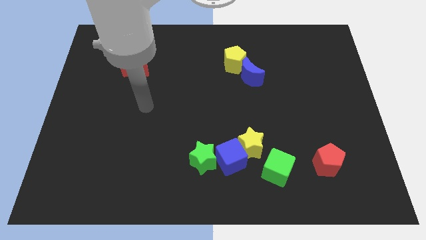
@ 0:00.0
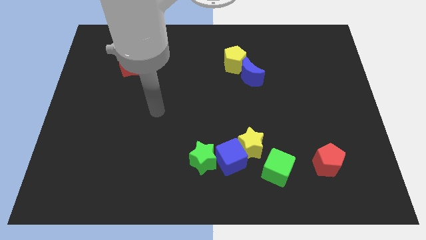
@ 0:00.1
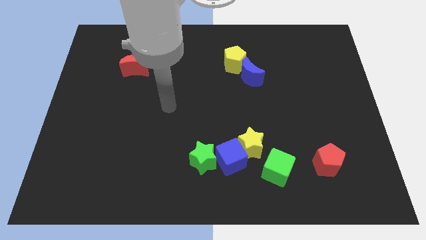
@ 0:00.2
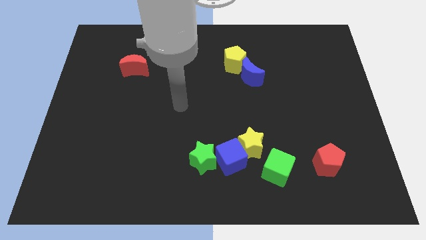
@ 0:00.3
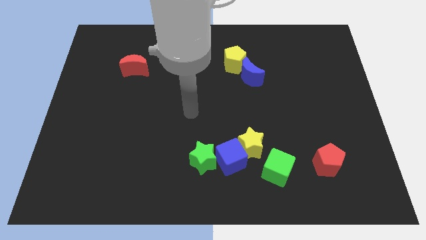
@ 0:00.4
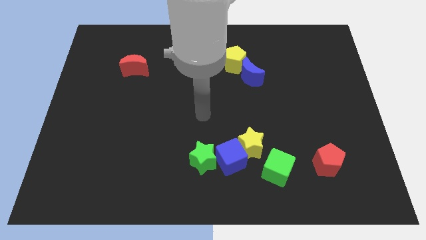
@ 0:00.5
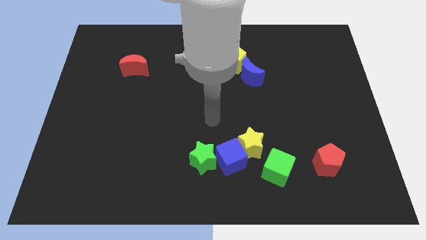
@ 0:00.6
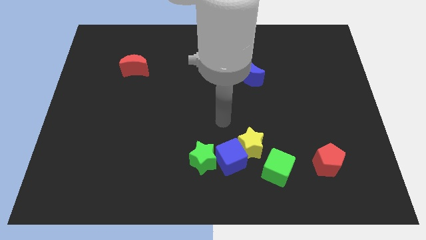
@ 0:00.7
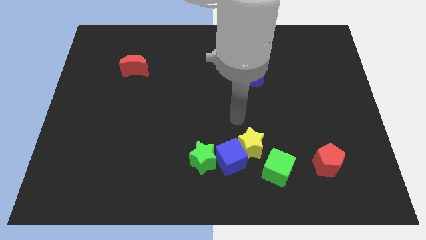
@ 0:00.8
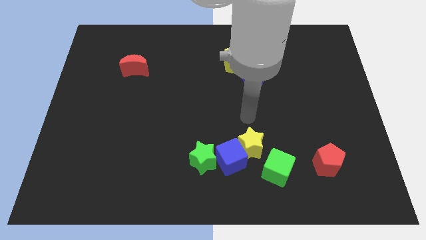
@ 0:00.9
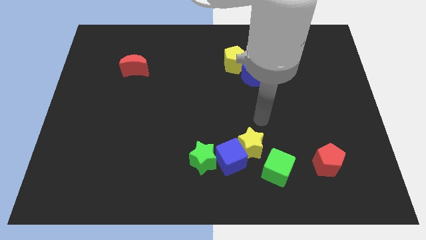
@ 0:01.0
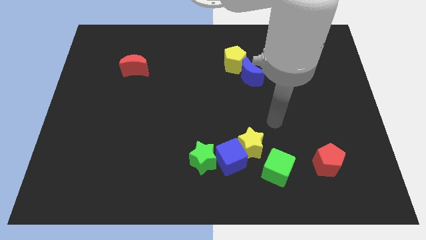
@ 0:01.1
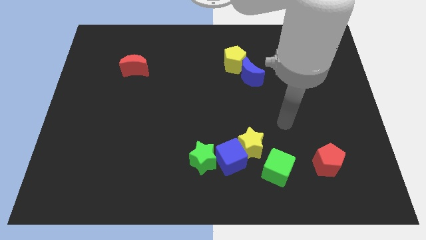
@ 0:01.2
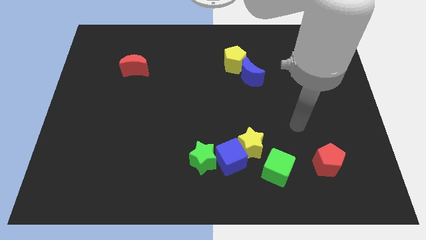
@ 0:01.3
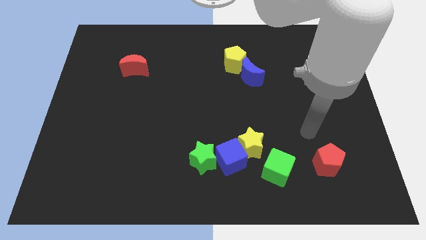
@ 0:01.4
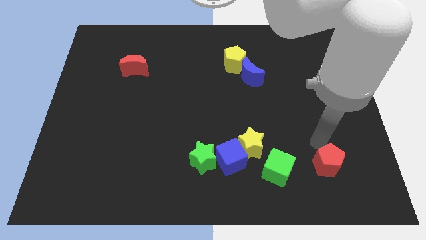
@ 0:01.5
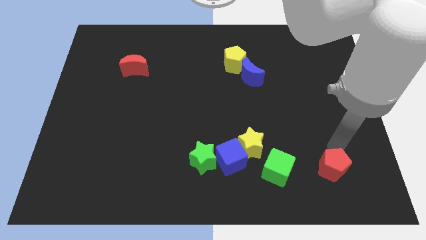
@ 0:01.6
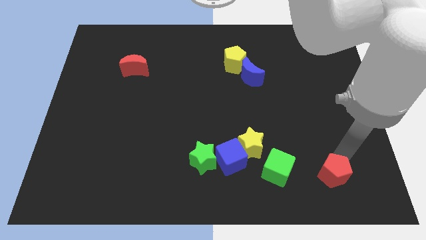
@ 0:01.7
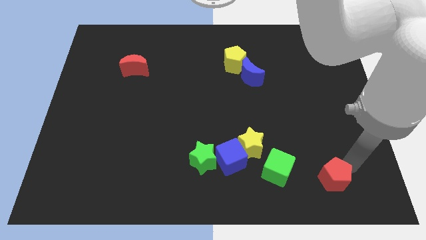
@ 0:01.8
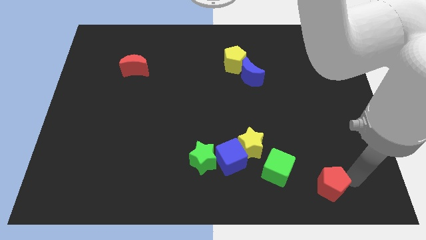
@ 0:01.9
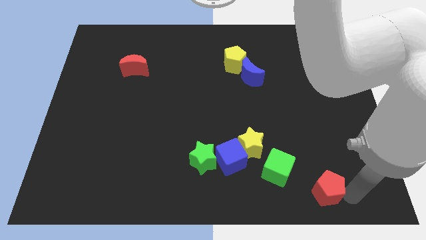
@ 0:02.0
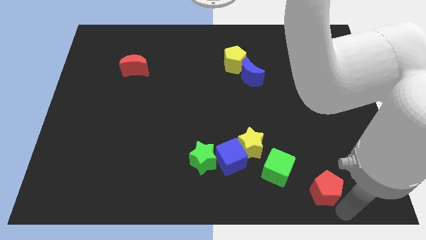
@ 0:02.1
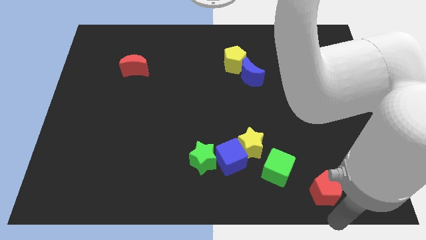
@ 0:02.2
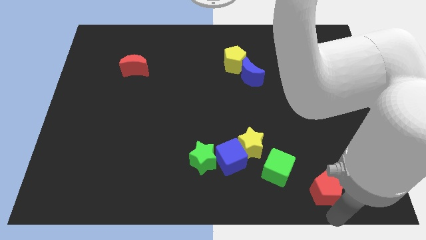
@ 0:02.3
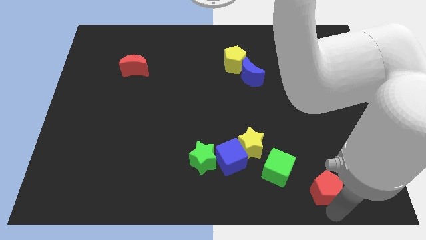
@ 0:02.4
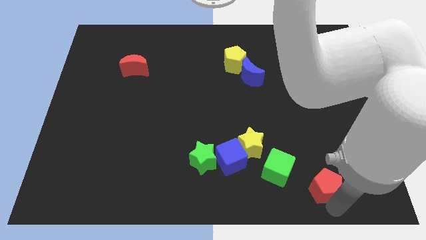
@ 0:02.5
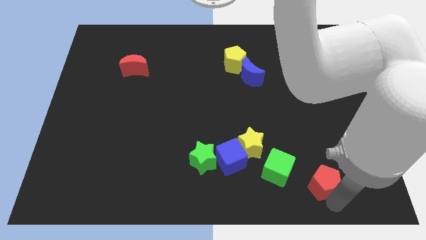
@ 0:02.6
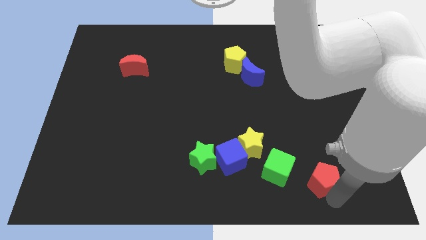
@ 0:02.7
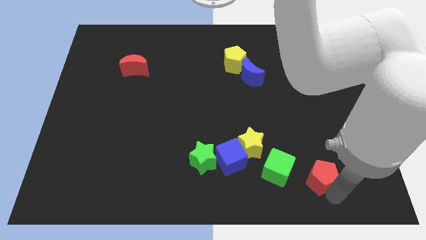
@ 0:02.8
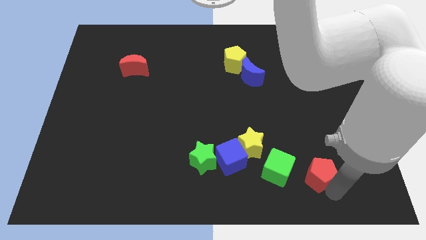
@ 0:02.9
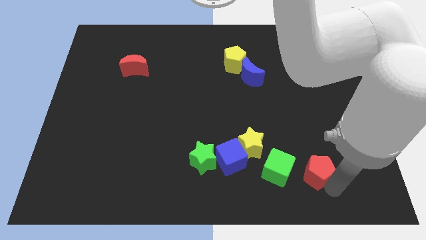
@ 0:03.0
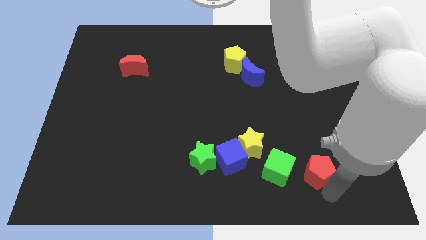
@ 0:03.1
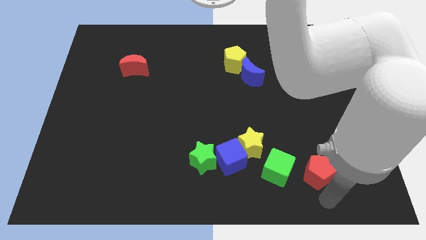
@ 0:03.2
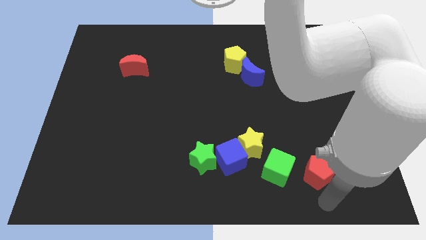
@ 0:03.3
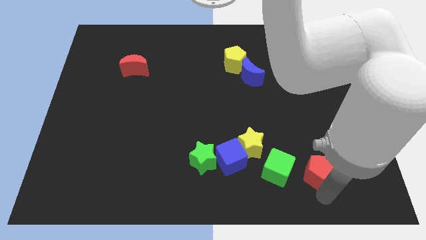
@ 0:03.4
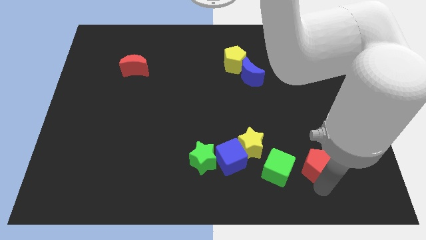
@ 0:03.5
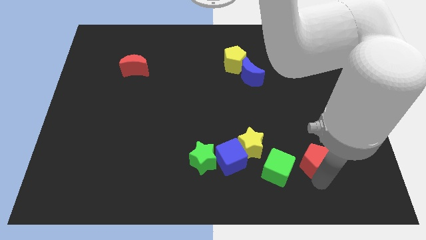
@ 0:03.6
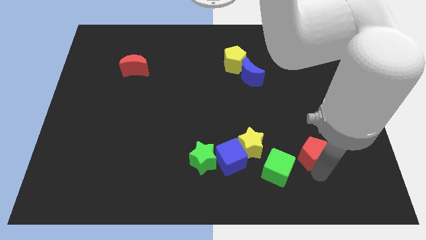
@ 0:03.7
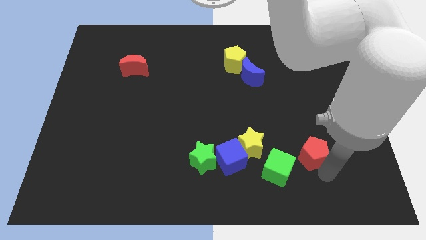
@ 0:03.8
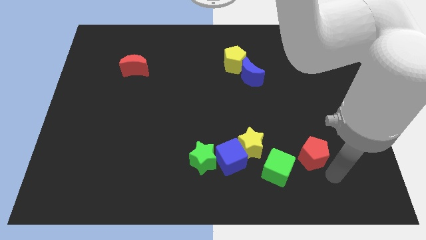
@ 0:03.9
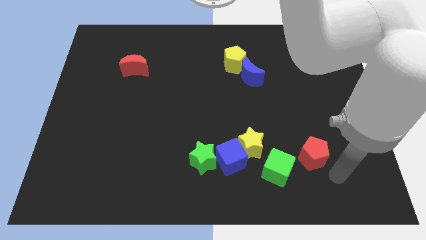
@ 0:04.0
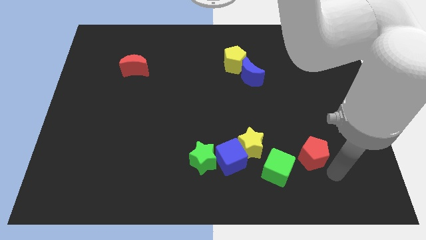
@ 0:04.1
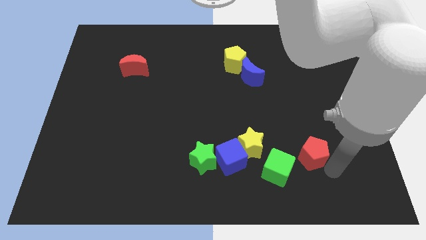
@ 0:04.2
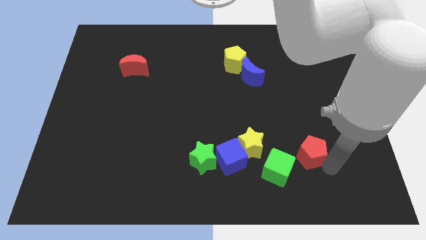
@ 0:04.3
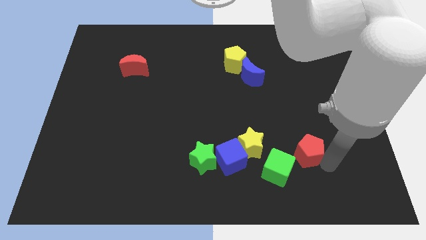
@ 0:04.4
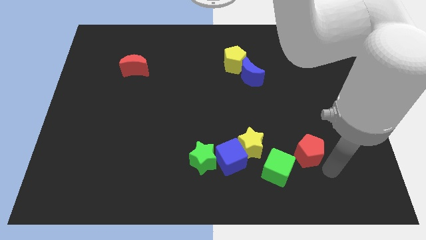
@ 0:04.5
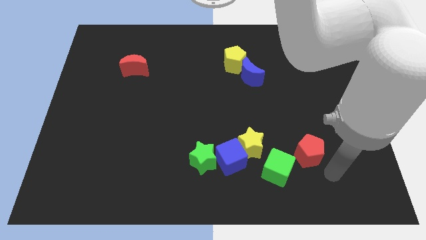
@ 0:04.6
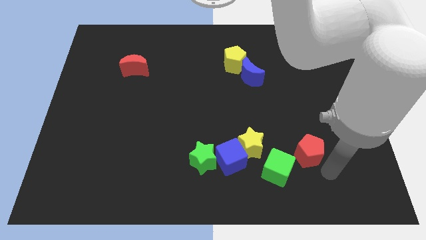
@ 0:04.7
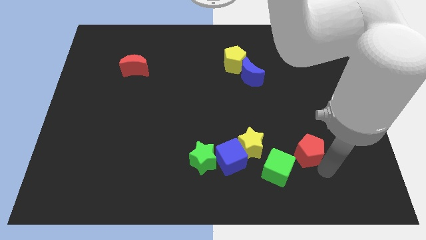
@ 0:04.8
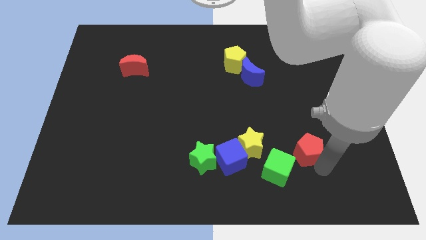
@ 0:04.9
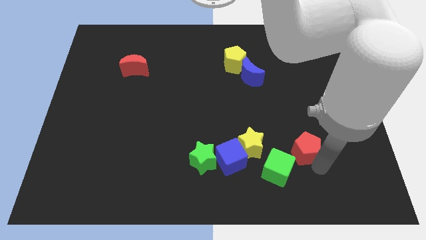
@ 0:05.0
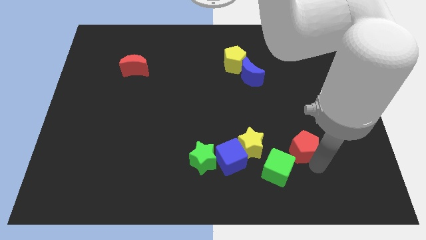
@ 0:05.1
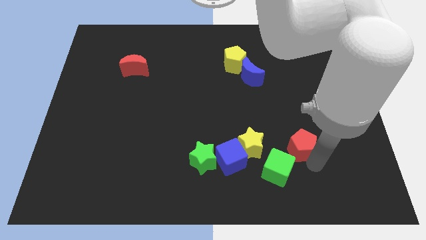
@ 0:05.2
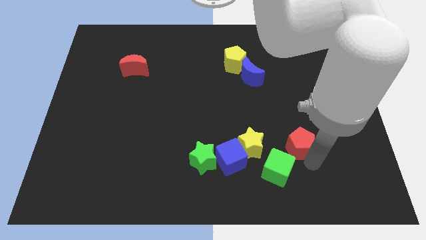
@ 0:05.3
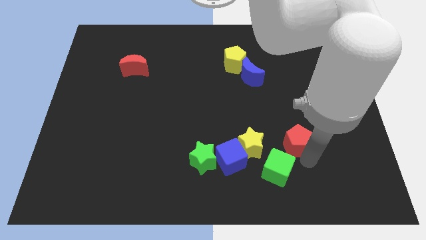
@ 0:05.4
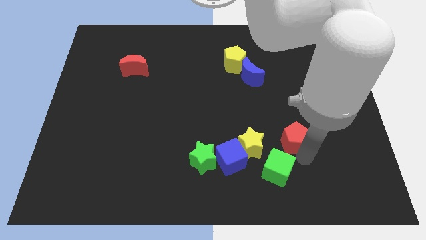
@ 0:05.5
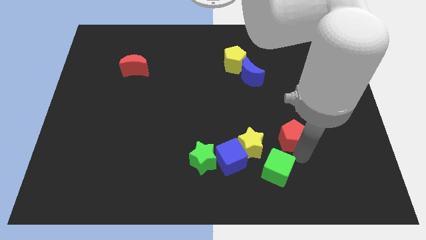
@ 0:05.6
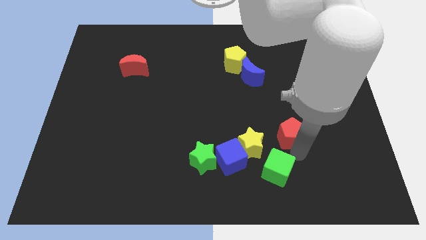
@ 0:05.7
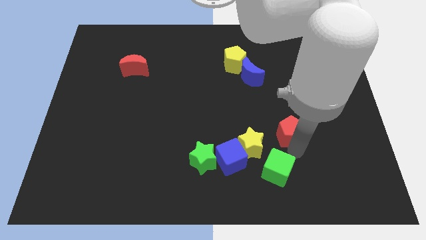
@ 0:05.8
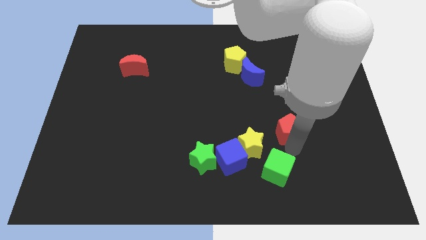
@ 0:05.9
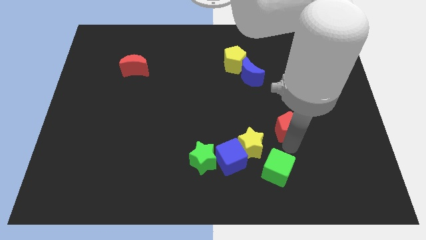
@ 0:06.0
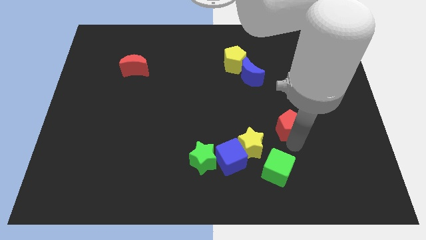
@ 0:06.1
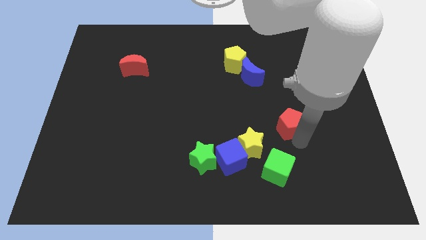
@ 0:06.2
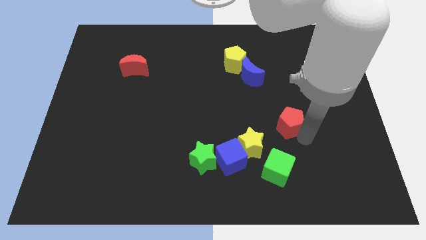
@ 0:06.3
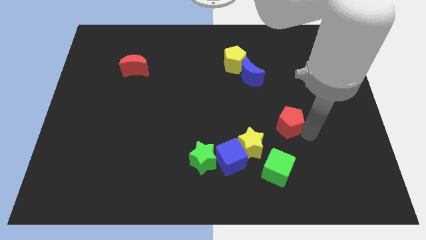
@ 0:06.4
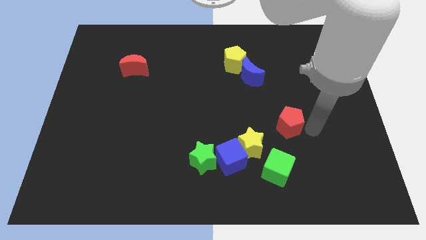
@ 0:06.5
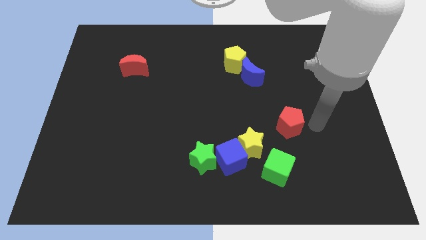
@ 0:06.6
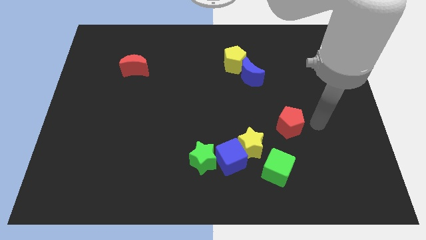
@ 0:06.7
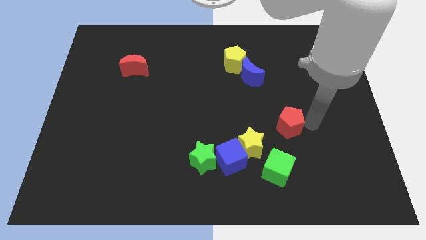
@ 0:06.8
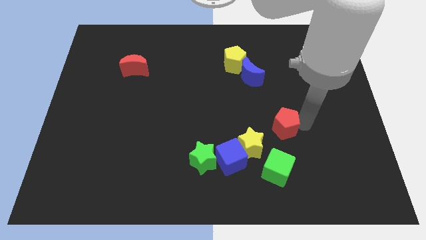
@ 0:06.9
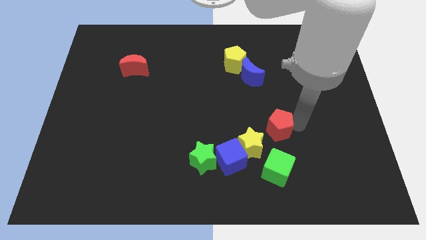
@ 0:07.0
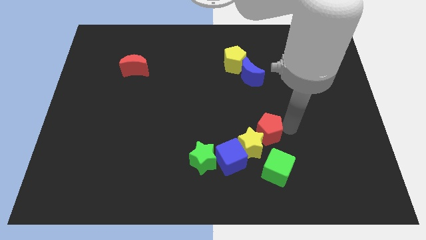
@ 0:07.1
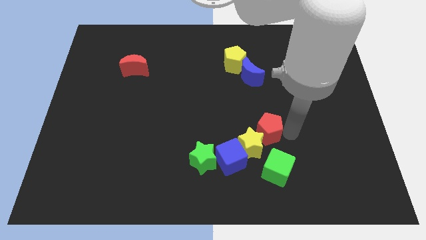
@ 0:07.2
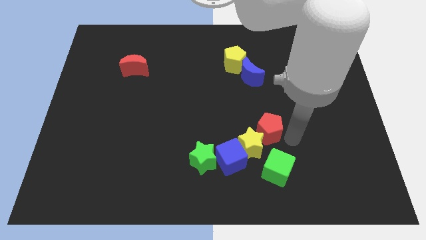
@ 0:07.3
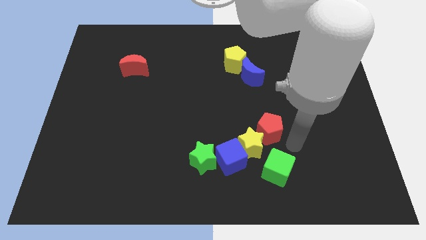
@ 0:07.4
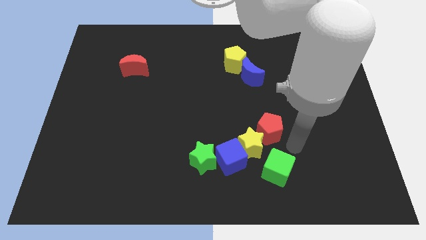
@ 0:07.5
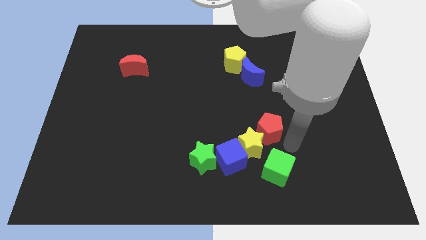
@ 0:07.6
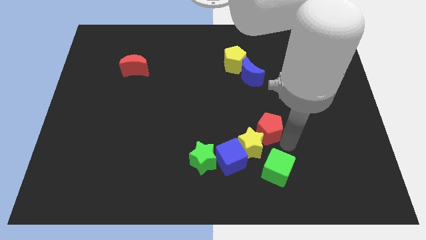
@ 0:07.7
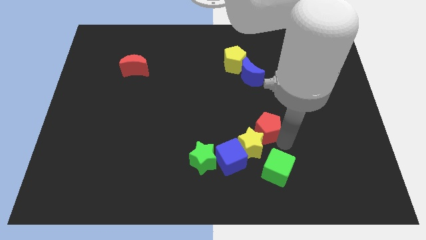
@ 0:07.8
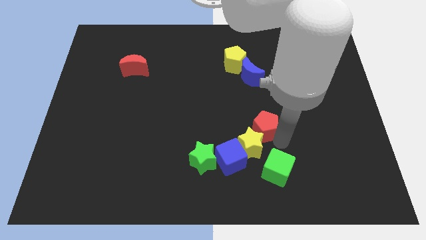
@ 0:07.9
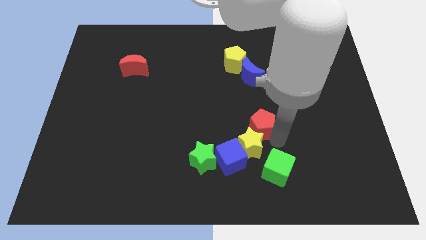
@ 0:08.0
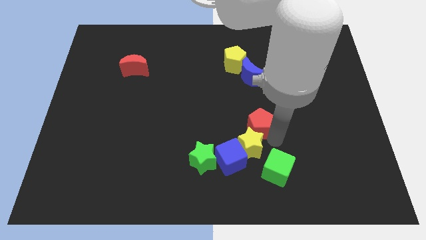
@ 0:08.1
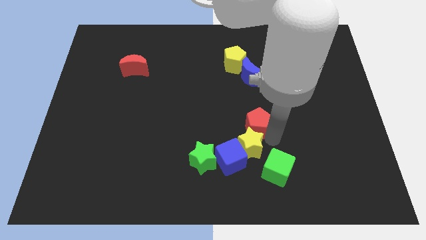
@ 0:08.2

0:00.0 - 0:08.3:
slide the red pentagon to the middle
